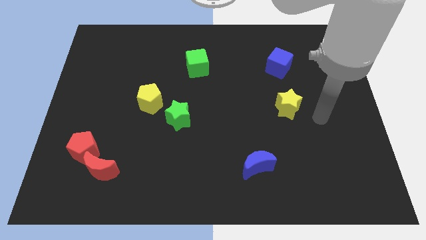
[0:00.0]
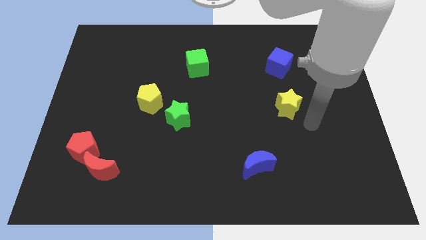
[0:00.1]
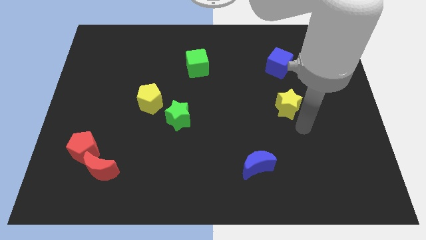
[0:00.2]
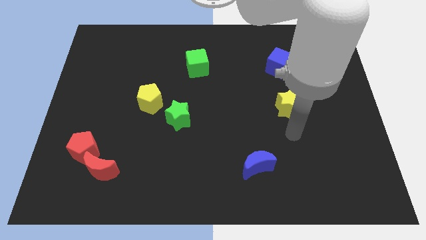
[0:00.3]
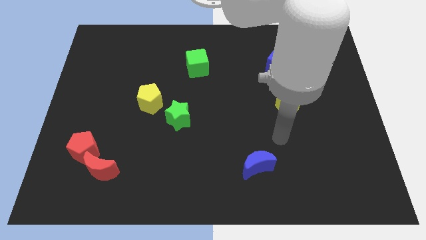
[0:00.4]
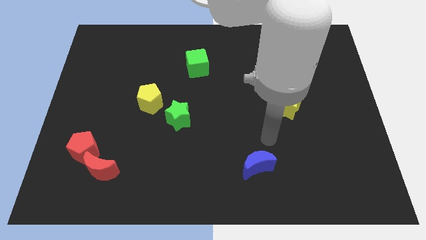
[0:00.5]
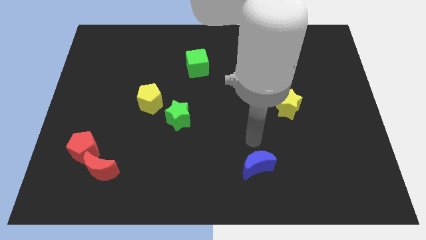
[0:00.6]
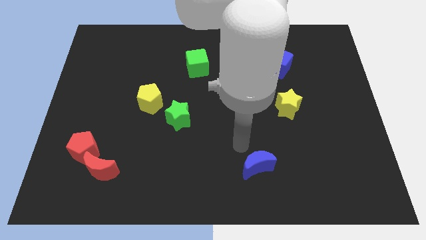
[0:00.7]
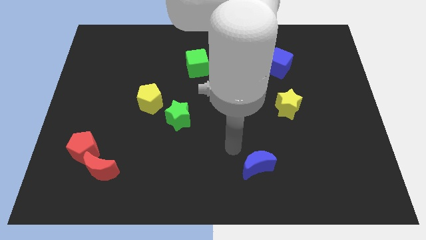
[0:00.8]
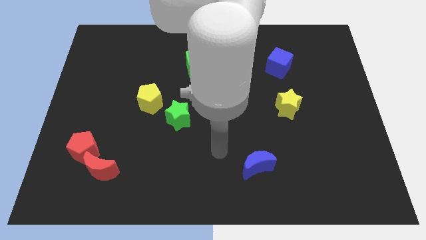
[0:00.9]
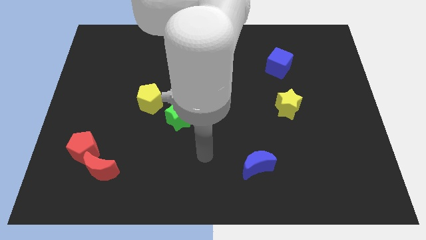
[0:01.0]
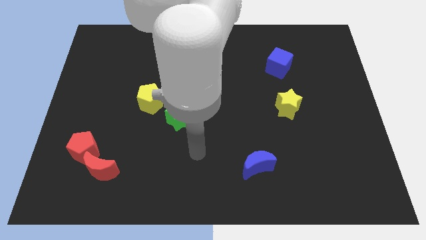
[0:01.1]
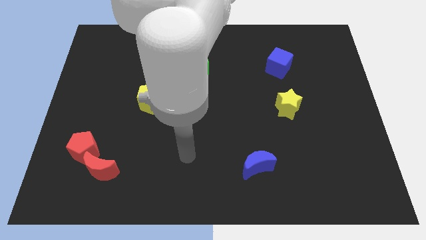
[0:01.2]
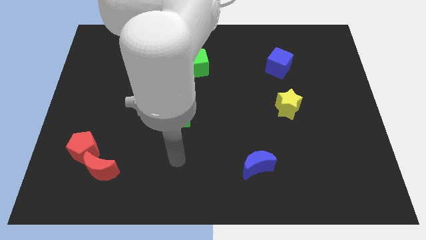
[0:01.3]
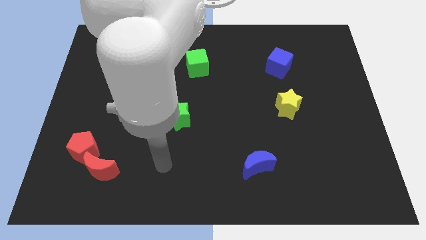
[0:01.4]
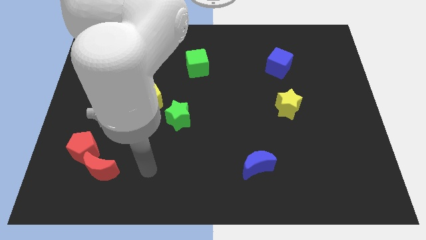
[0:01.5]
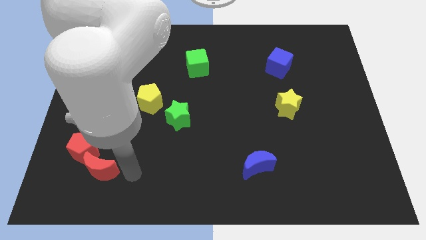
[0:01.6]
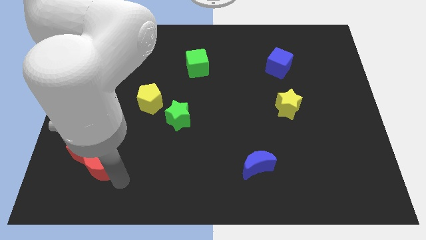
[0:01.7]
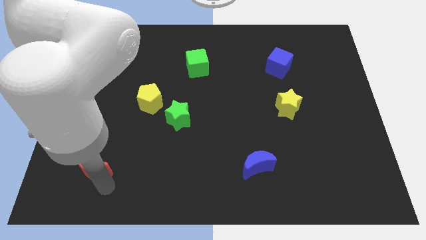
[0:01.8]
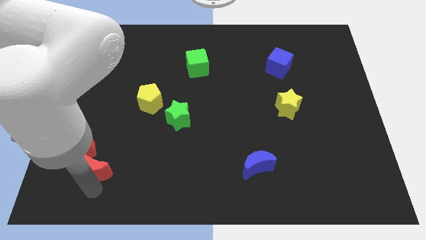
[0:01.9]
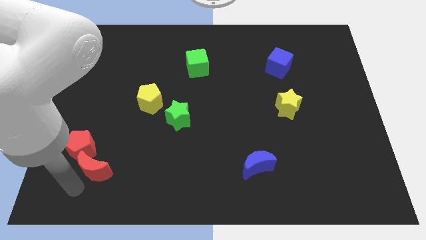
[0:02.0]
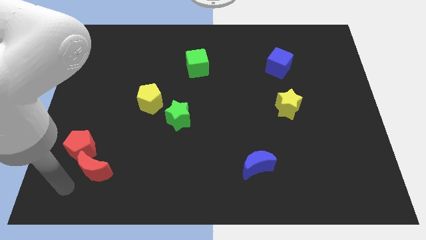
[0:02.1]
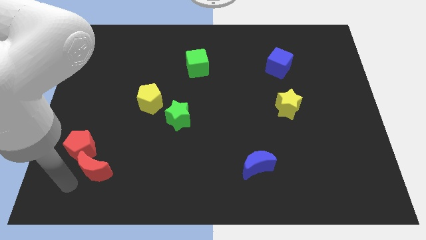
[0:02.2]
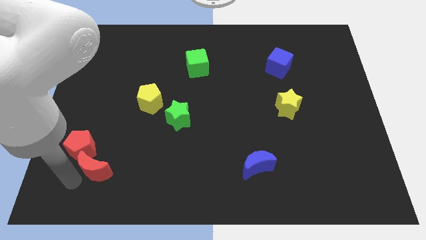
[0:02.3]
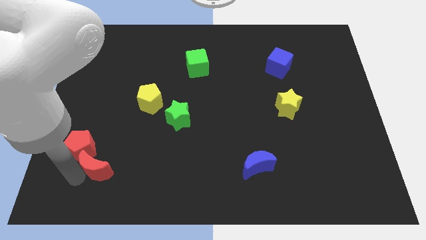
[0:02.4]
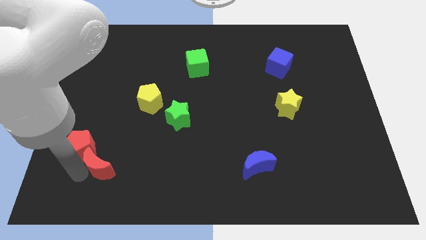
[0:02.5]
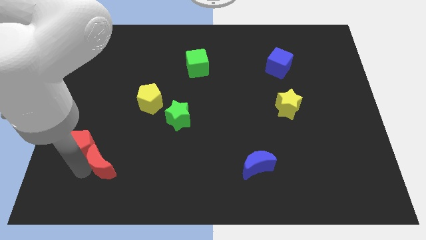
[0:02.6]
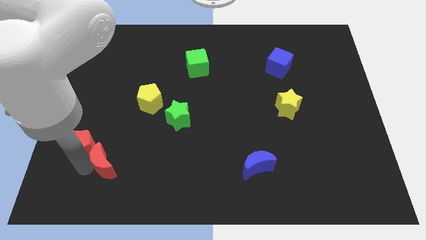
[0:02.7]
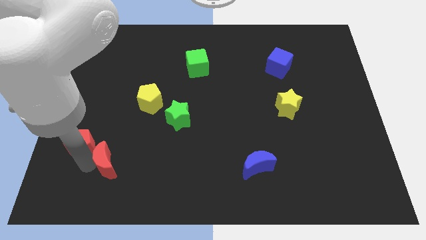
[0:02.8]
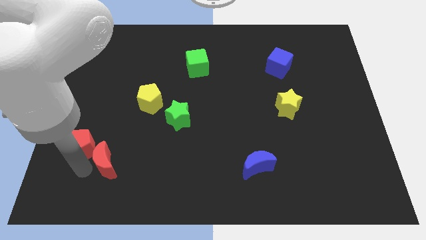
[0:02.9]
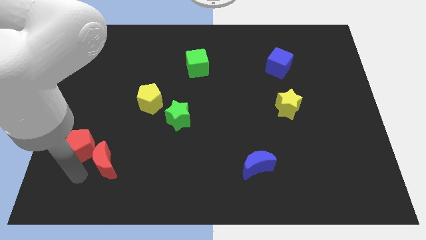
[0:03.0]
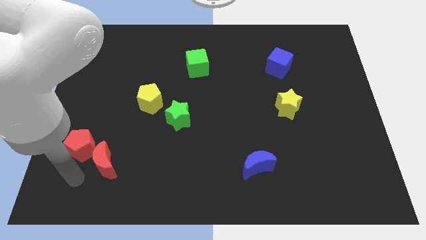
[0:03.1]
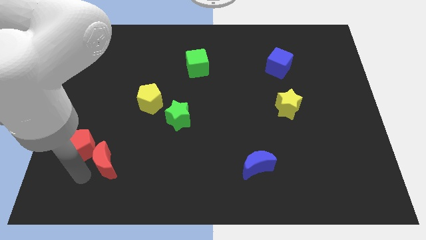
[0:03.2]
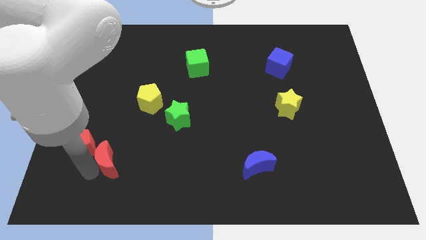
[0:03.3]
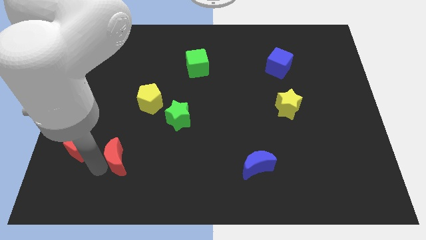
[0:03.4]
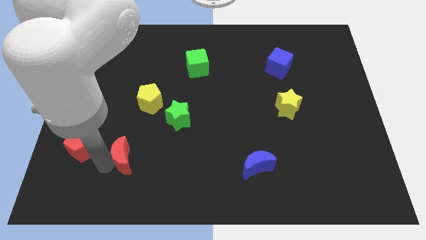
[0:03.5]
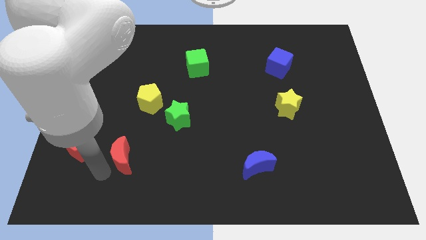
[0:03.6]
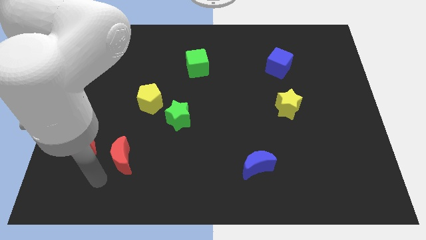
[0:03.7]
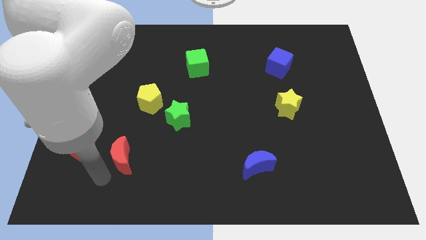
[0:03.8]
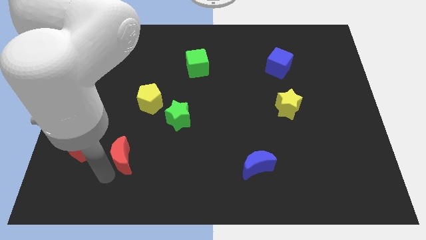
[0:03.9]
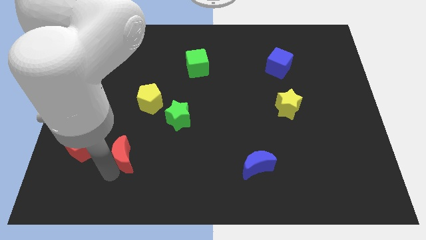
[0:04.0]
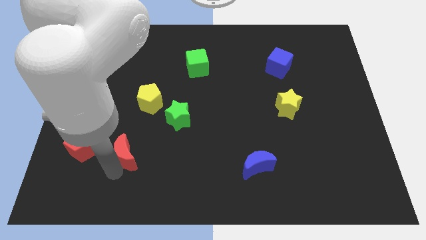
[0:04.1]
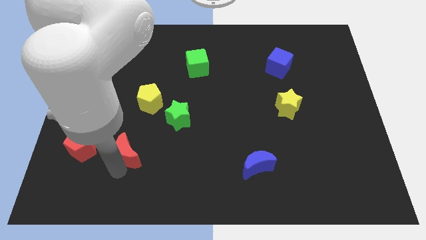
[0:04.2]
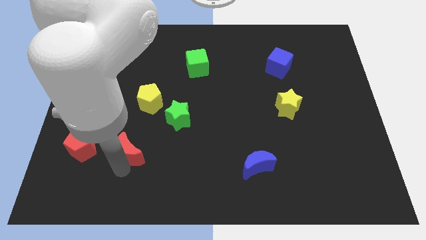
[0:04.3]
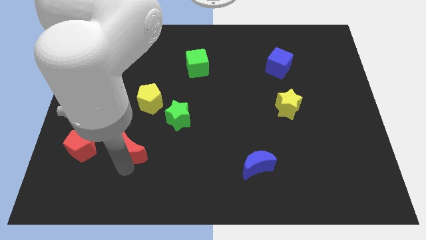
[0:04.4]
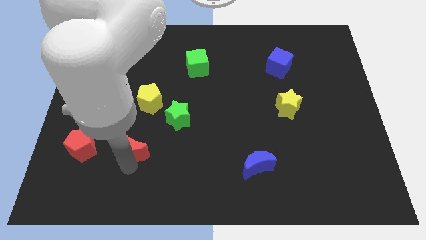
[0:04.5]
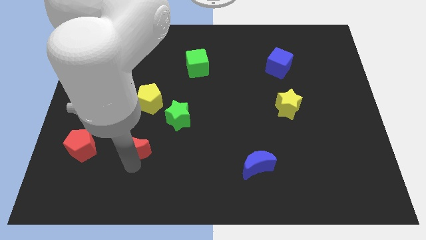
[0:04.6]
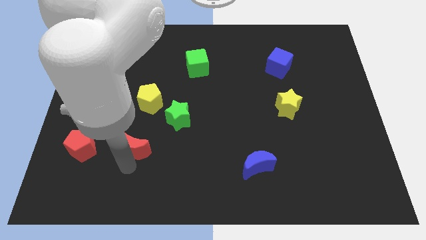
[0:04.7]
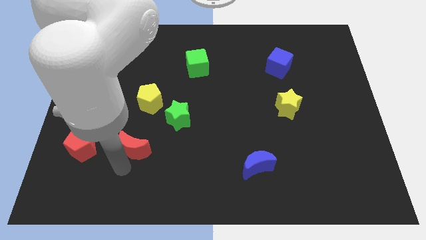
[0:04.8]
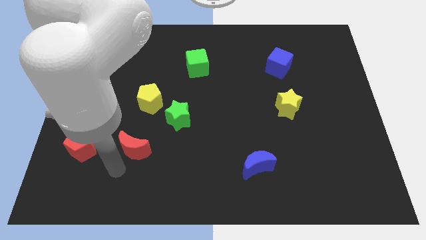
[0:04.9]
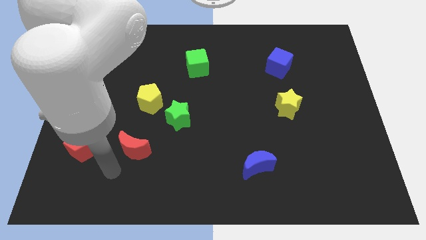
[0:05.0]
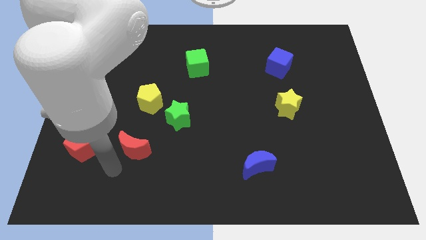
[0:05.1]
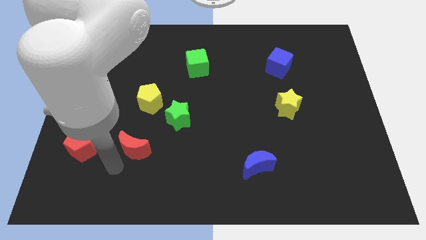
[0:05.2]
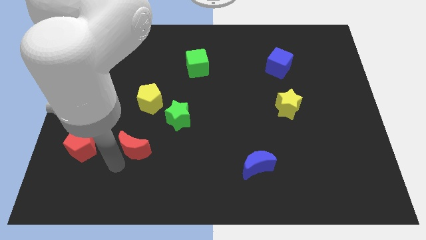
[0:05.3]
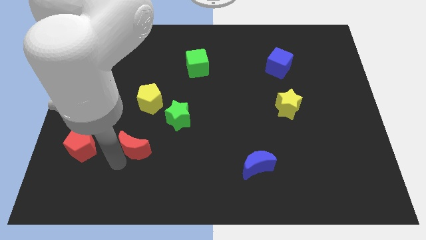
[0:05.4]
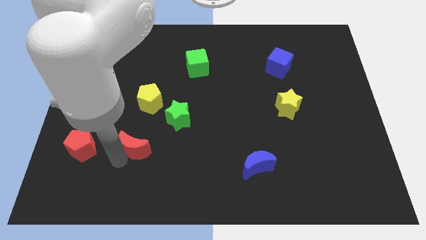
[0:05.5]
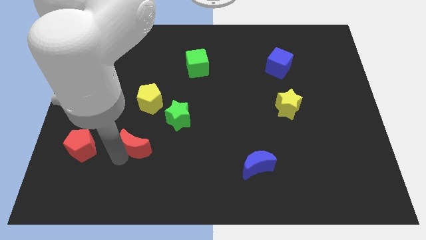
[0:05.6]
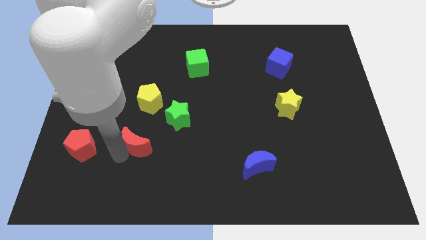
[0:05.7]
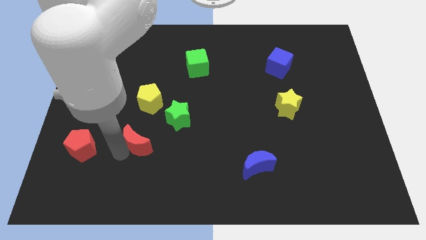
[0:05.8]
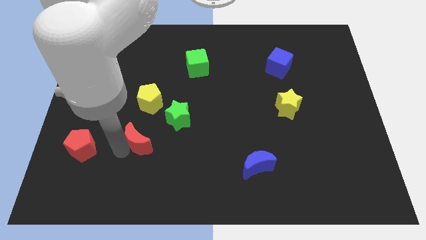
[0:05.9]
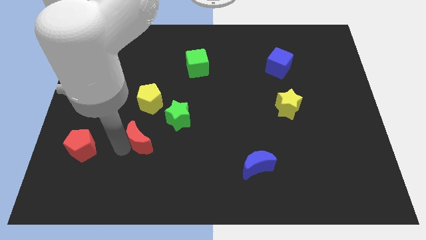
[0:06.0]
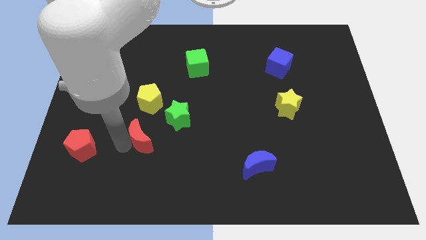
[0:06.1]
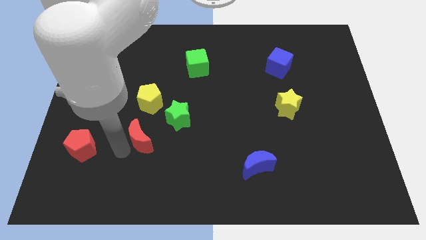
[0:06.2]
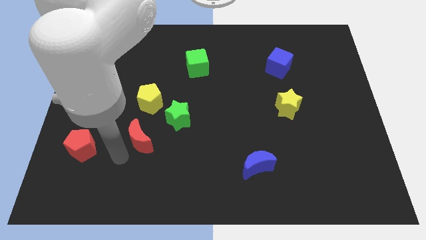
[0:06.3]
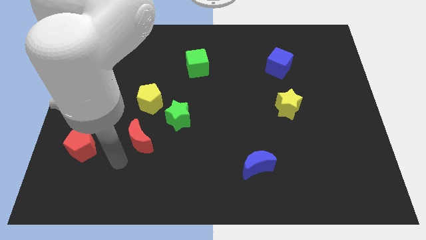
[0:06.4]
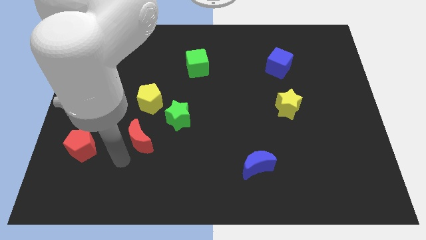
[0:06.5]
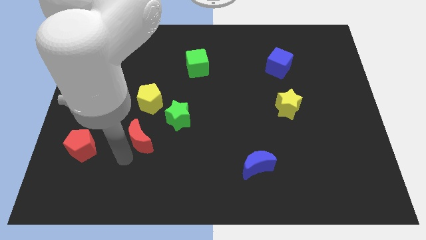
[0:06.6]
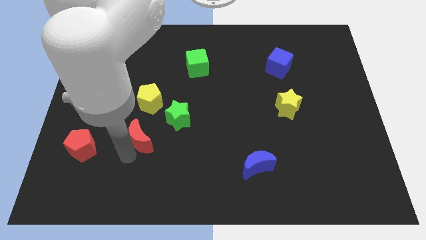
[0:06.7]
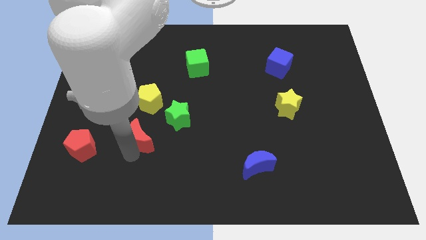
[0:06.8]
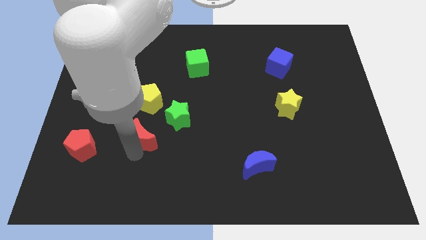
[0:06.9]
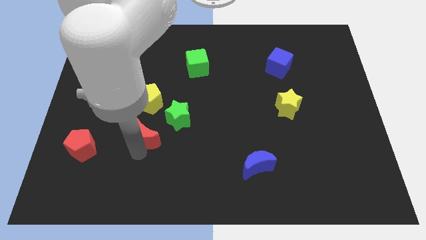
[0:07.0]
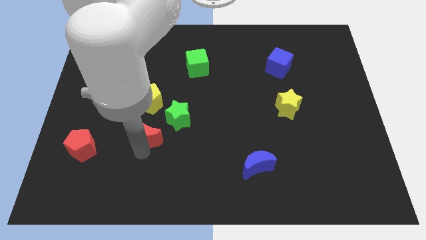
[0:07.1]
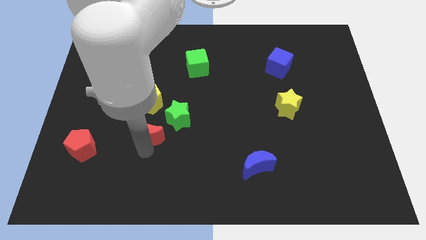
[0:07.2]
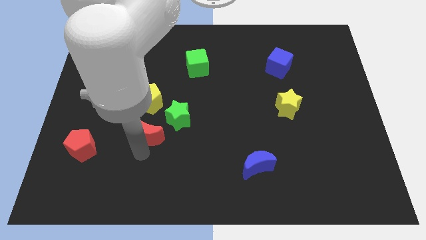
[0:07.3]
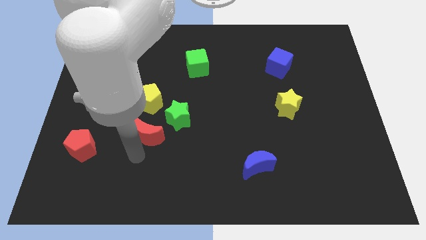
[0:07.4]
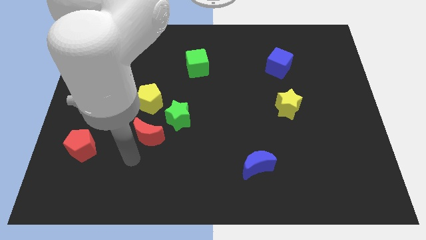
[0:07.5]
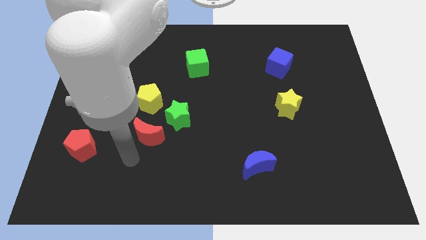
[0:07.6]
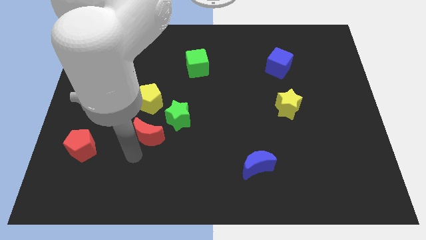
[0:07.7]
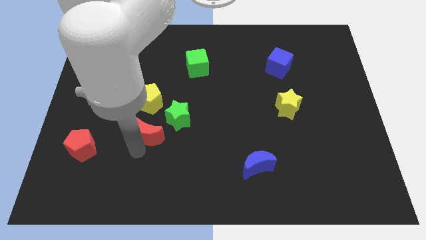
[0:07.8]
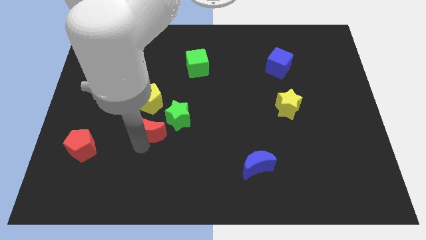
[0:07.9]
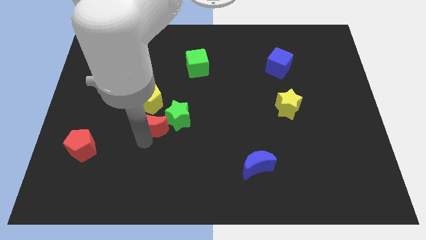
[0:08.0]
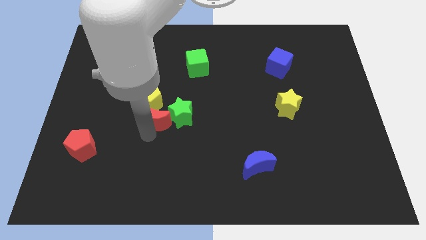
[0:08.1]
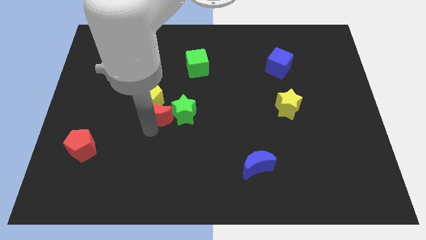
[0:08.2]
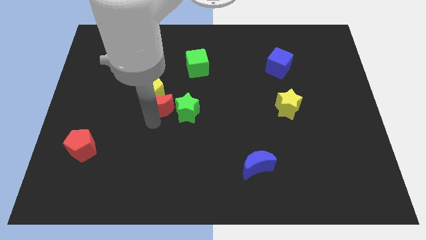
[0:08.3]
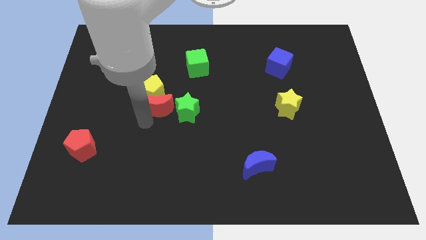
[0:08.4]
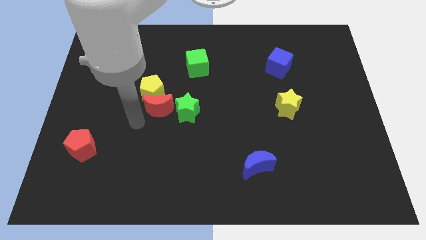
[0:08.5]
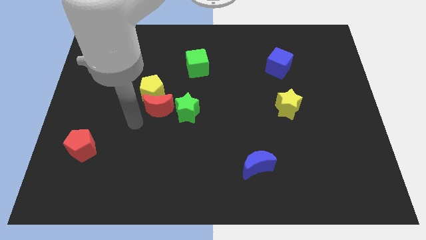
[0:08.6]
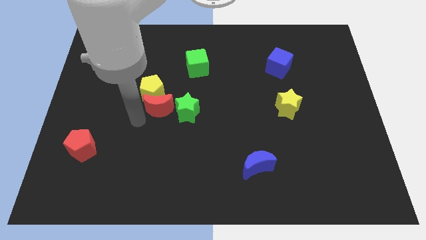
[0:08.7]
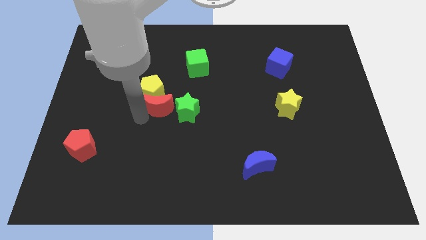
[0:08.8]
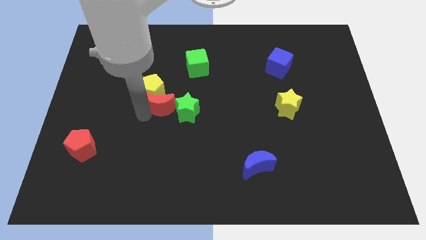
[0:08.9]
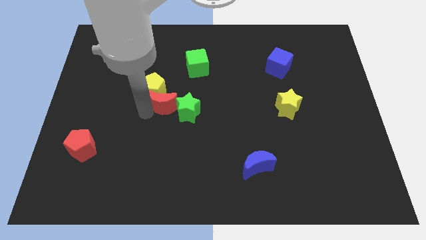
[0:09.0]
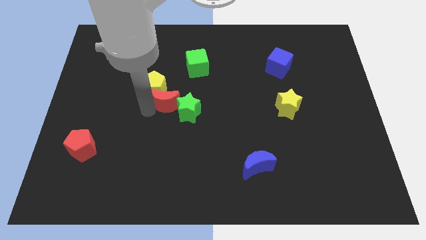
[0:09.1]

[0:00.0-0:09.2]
push the red moon up and right
